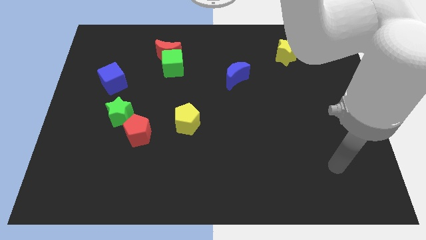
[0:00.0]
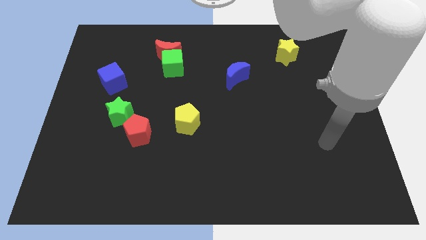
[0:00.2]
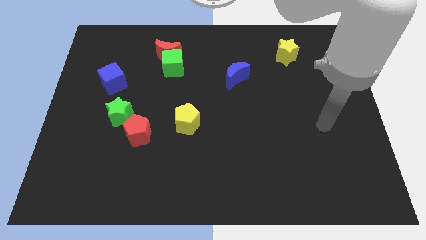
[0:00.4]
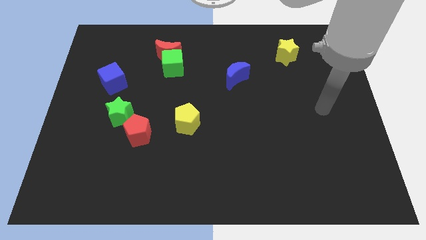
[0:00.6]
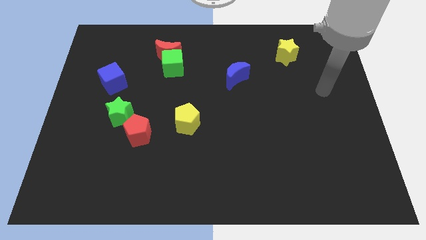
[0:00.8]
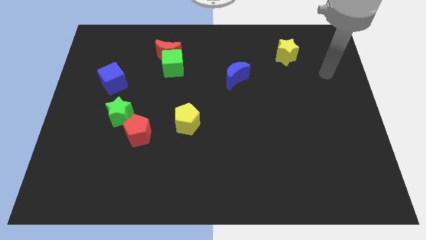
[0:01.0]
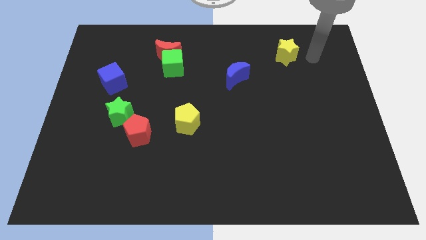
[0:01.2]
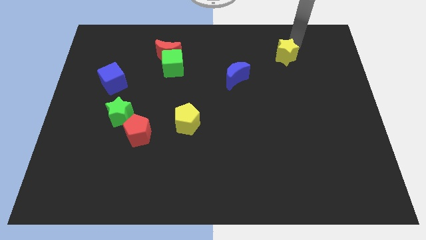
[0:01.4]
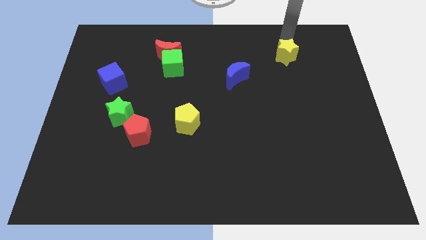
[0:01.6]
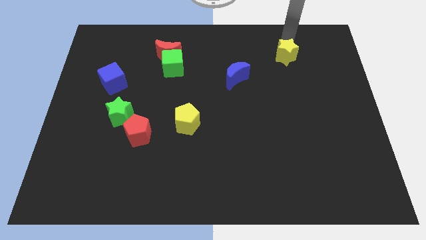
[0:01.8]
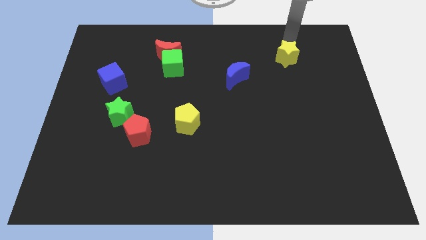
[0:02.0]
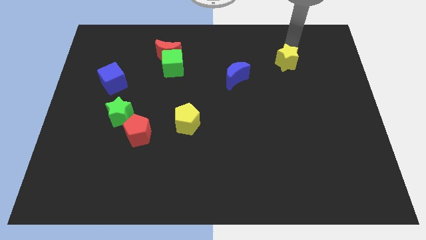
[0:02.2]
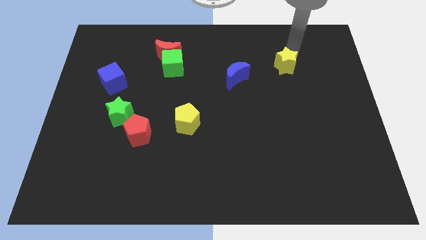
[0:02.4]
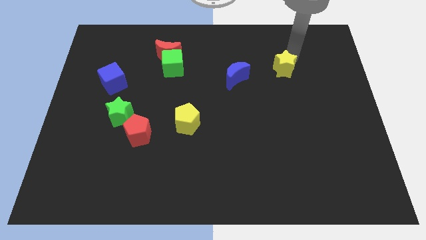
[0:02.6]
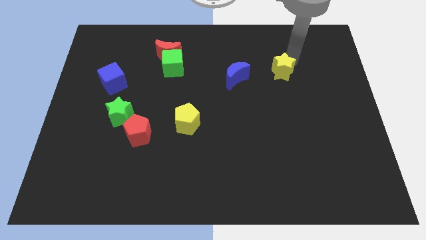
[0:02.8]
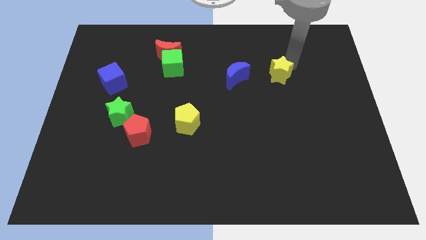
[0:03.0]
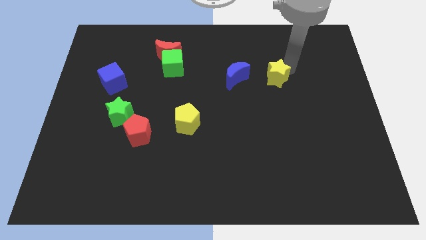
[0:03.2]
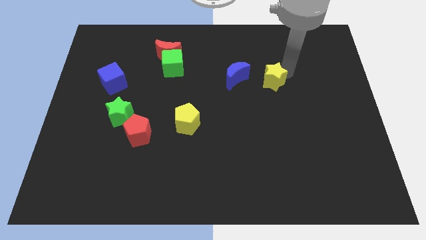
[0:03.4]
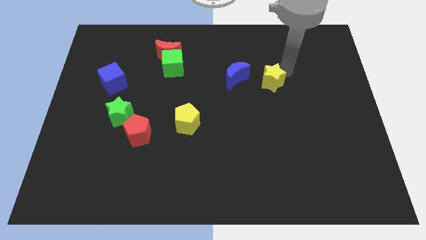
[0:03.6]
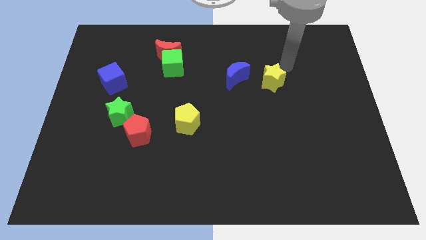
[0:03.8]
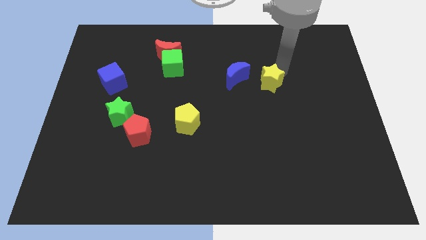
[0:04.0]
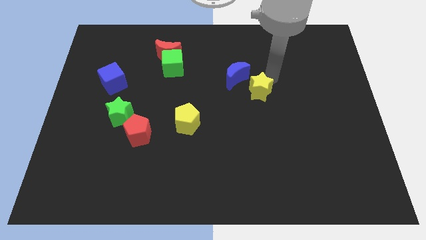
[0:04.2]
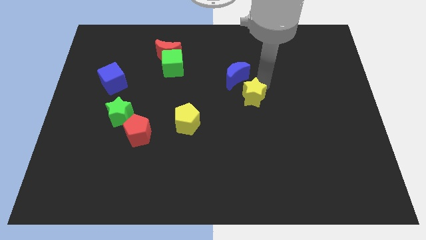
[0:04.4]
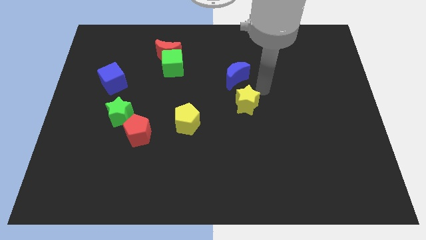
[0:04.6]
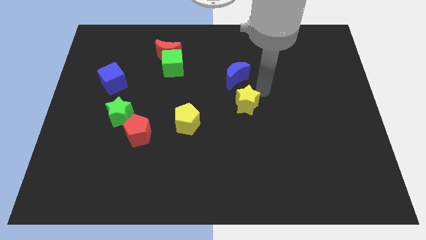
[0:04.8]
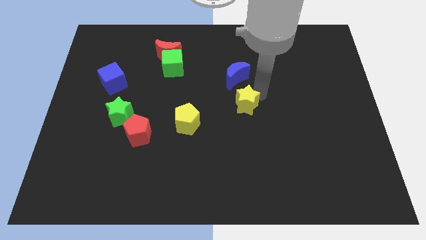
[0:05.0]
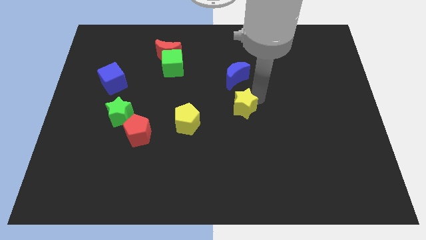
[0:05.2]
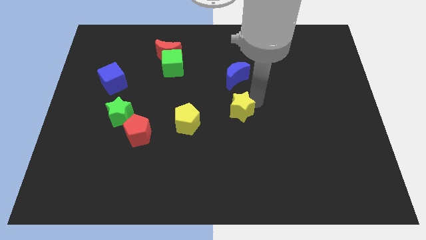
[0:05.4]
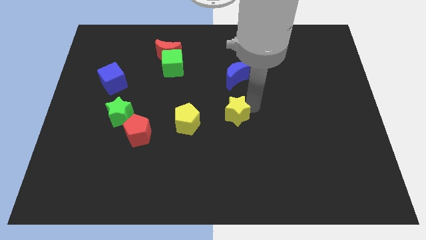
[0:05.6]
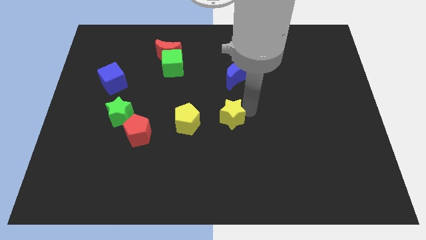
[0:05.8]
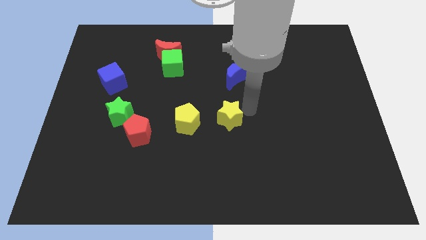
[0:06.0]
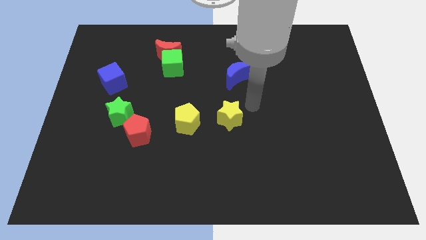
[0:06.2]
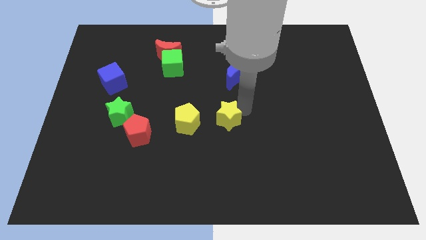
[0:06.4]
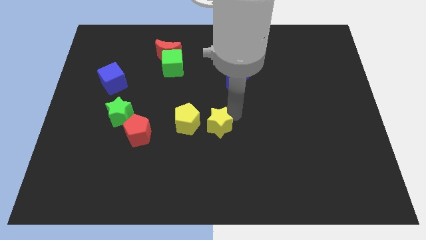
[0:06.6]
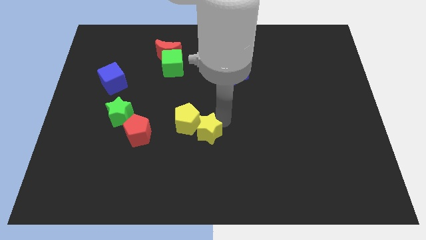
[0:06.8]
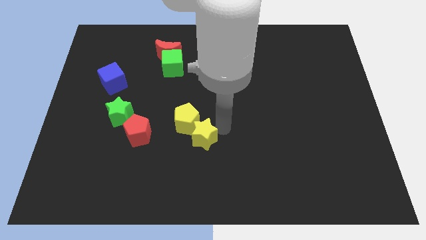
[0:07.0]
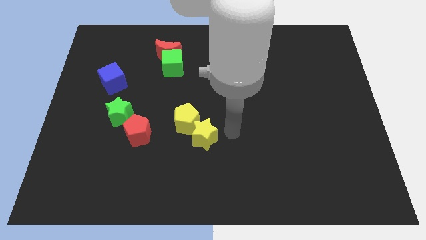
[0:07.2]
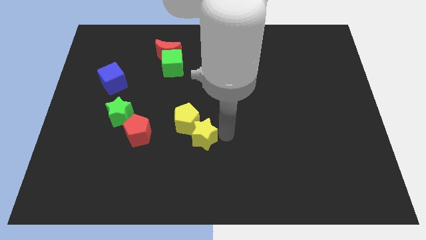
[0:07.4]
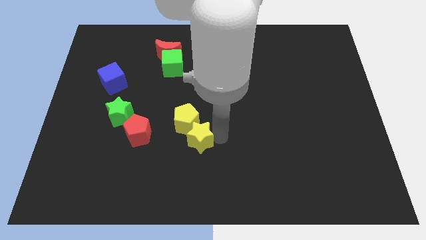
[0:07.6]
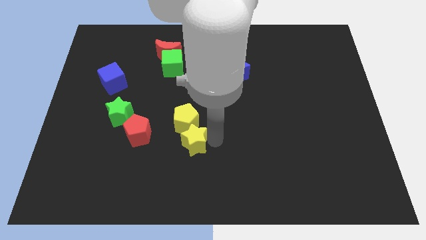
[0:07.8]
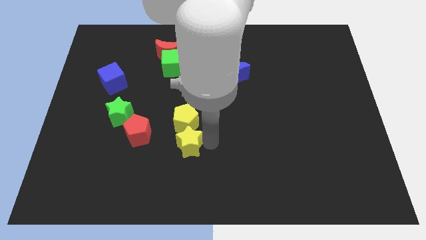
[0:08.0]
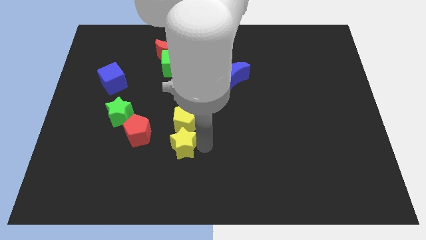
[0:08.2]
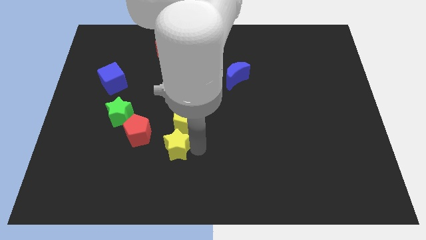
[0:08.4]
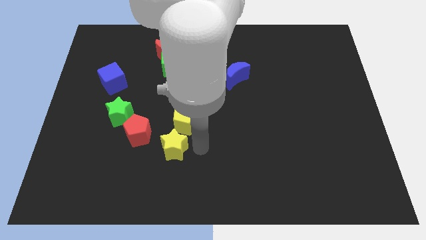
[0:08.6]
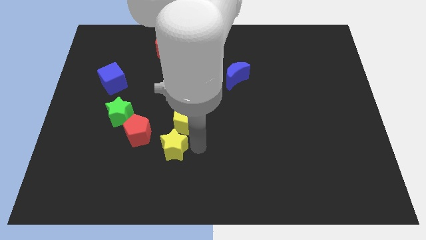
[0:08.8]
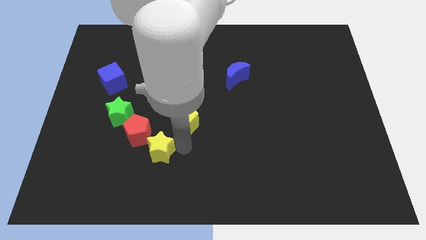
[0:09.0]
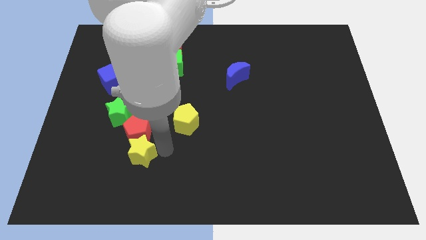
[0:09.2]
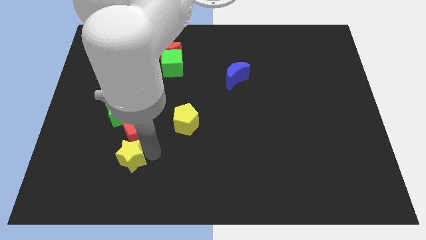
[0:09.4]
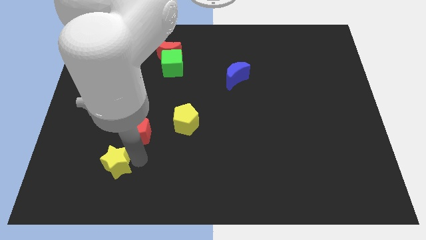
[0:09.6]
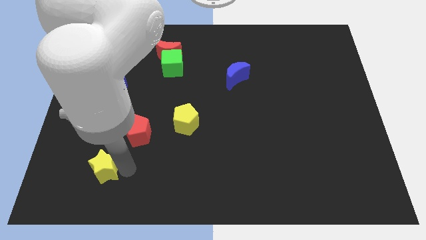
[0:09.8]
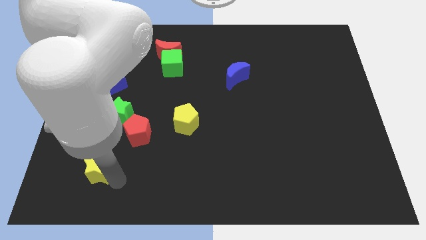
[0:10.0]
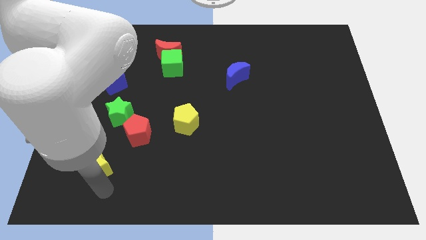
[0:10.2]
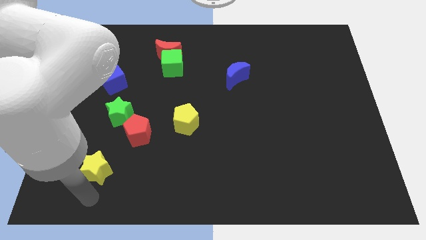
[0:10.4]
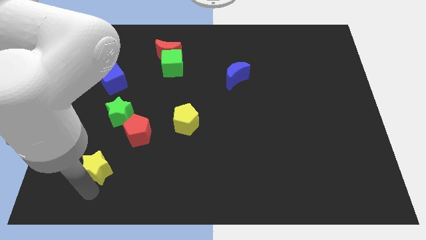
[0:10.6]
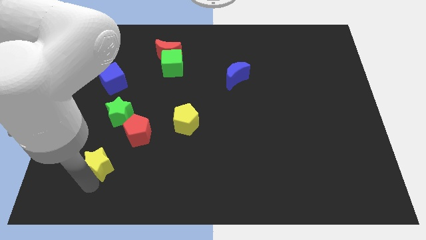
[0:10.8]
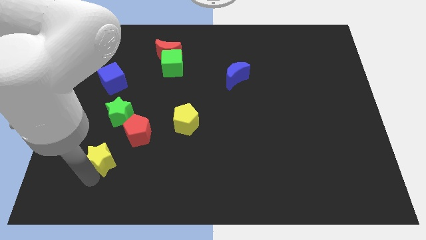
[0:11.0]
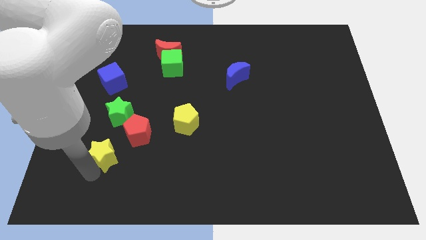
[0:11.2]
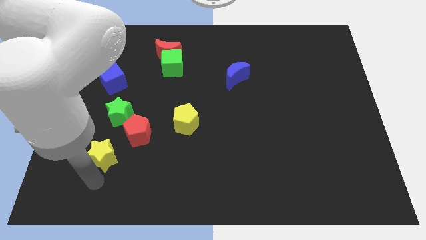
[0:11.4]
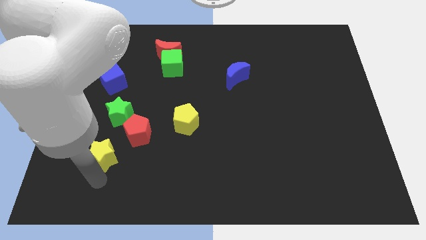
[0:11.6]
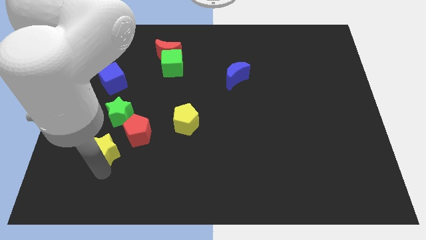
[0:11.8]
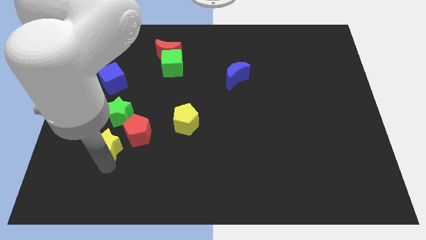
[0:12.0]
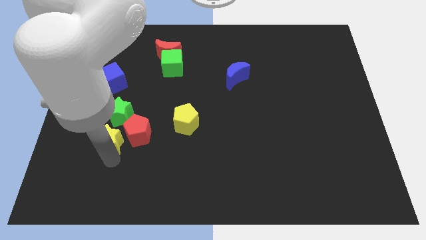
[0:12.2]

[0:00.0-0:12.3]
push the yellow star diagonally down and to the left of the green star

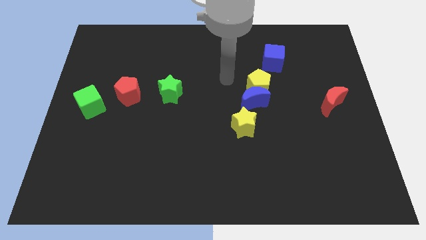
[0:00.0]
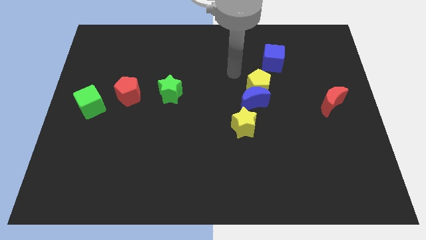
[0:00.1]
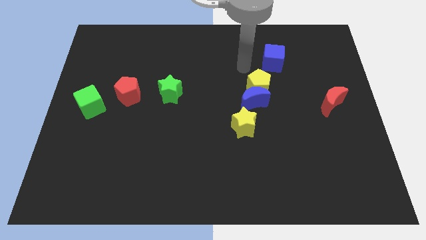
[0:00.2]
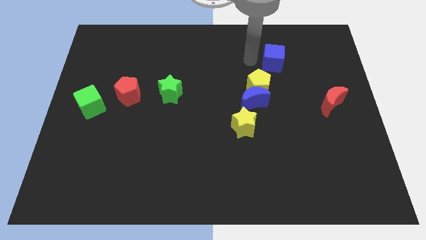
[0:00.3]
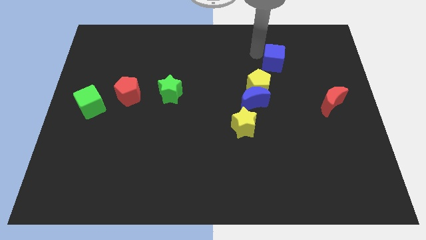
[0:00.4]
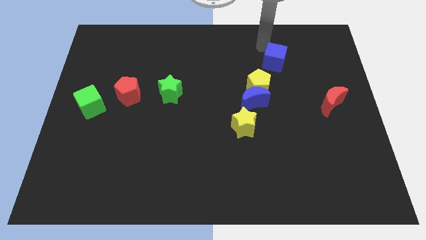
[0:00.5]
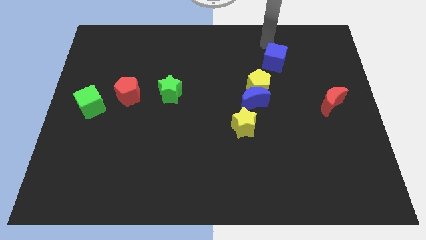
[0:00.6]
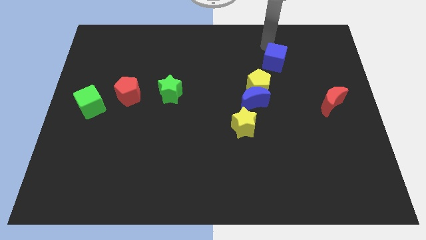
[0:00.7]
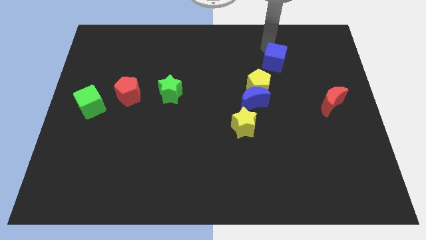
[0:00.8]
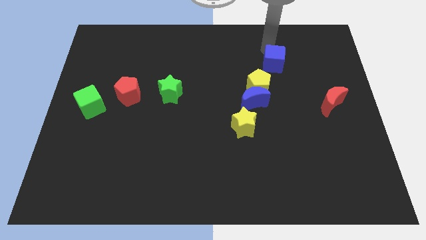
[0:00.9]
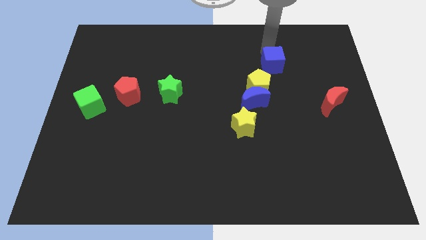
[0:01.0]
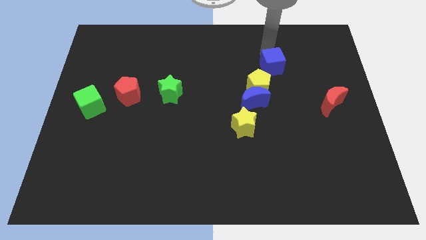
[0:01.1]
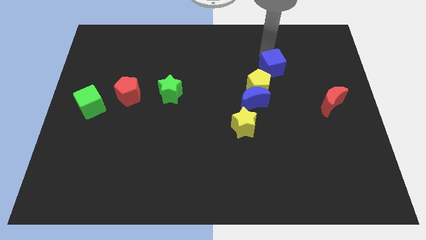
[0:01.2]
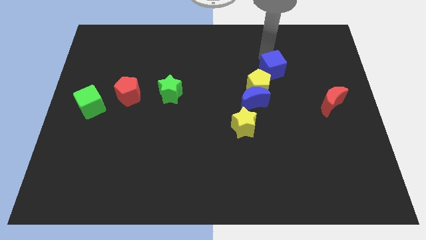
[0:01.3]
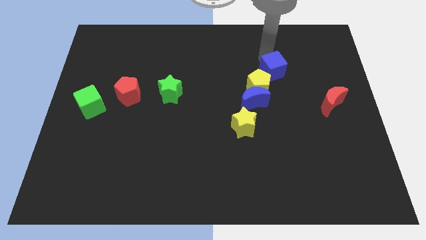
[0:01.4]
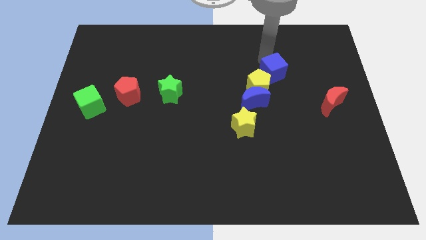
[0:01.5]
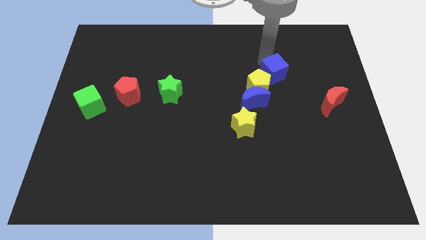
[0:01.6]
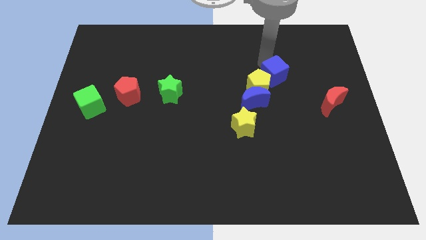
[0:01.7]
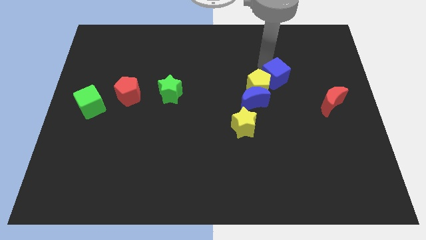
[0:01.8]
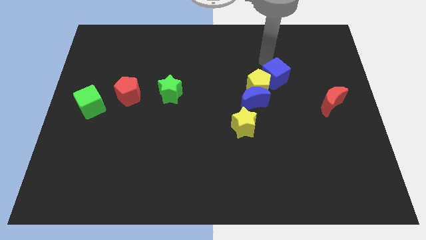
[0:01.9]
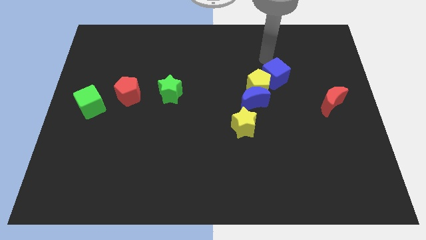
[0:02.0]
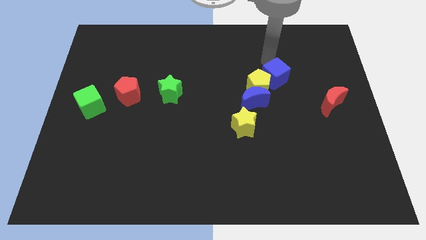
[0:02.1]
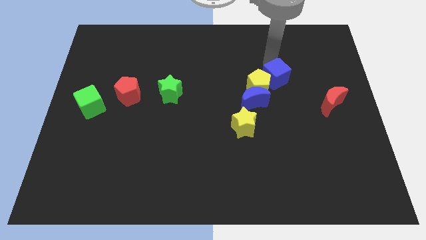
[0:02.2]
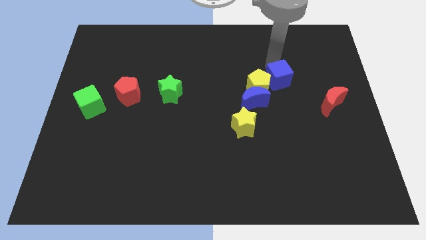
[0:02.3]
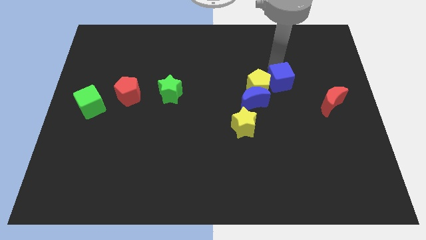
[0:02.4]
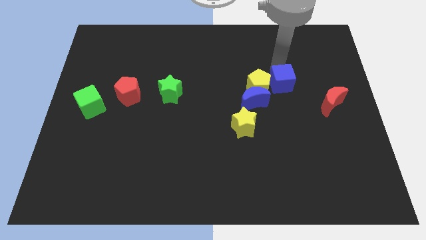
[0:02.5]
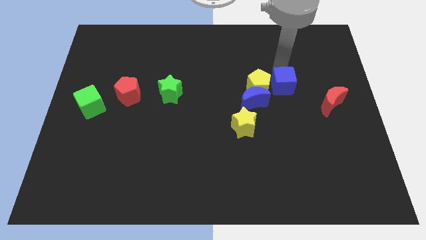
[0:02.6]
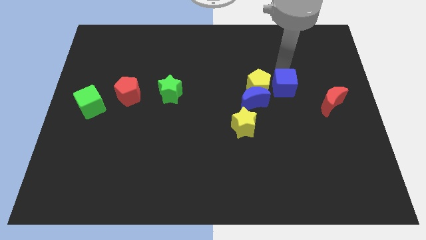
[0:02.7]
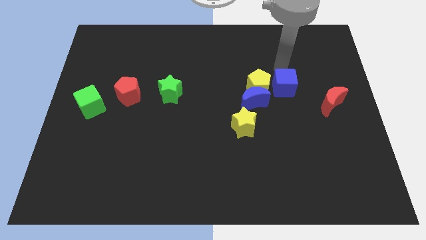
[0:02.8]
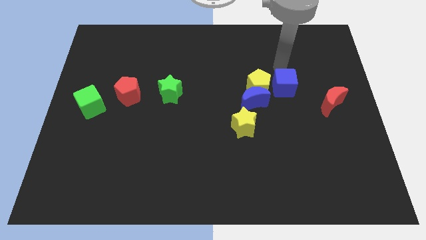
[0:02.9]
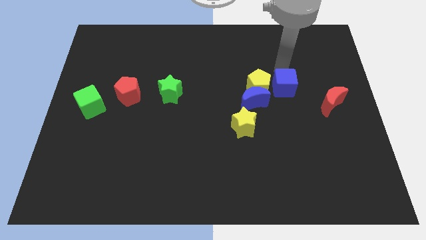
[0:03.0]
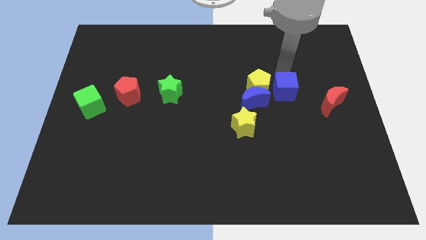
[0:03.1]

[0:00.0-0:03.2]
move the blue cube to the left side of the red moon
